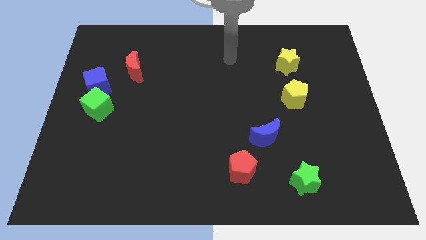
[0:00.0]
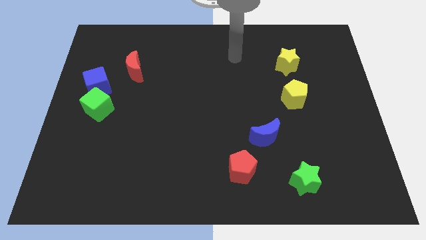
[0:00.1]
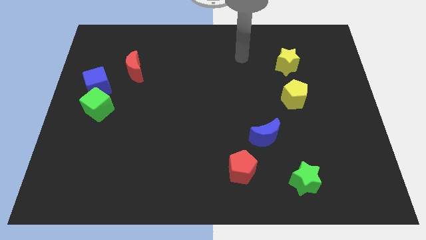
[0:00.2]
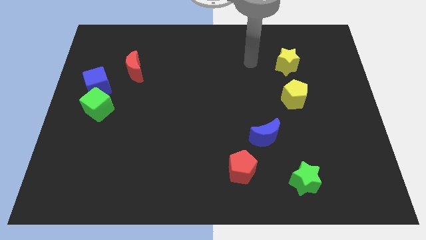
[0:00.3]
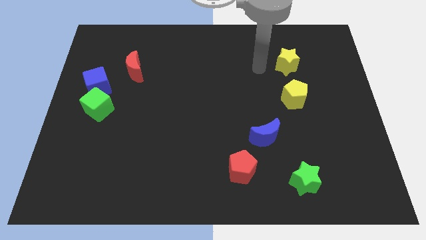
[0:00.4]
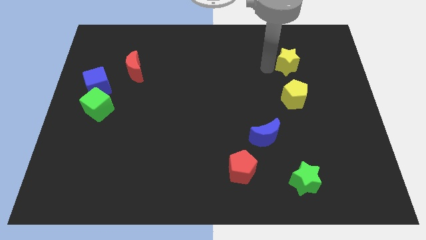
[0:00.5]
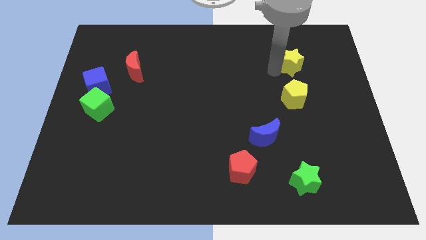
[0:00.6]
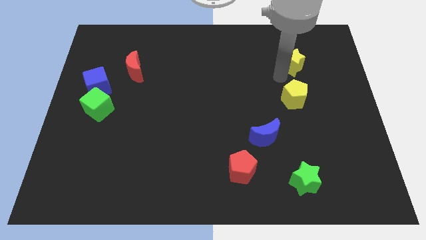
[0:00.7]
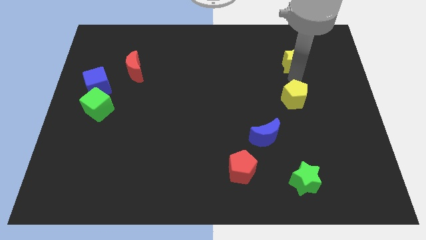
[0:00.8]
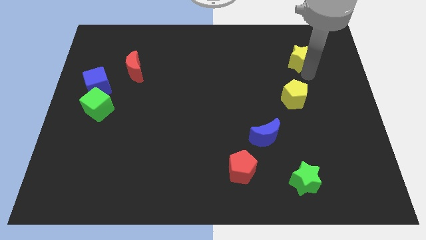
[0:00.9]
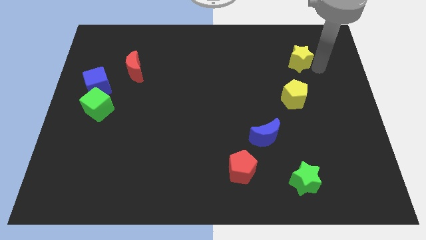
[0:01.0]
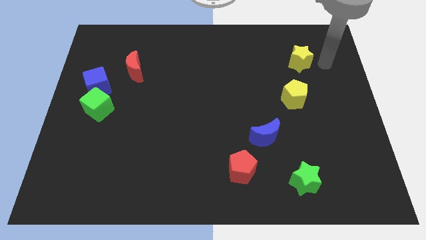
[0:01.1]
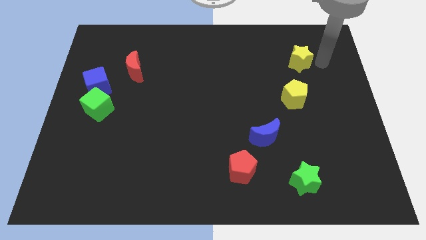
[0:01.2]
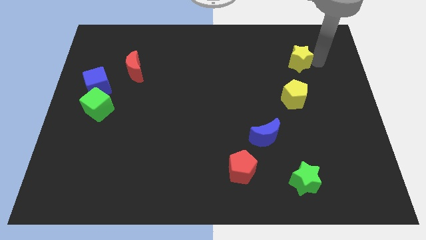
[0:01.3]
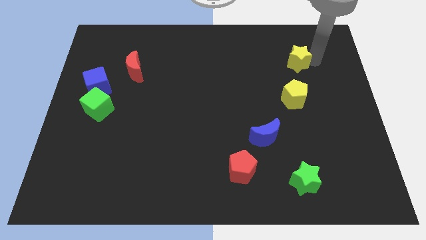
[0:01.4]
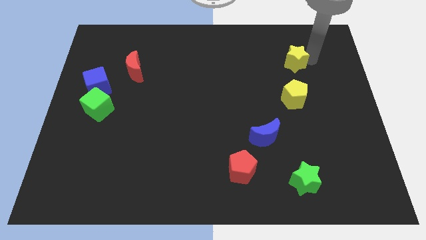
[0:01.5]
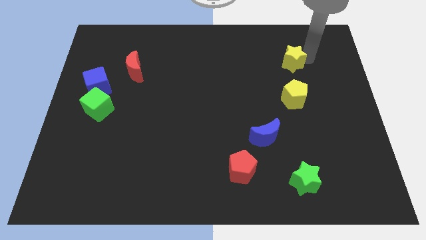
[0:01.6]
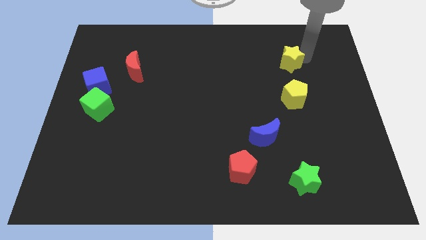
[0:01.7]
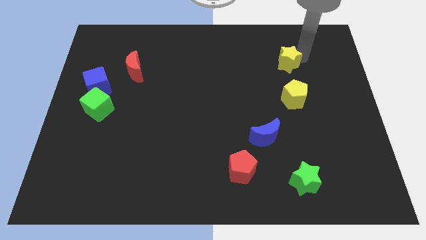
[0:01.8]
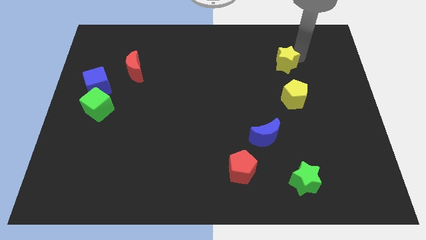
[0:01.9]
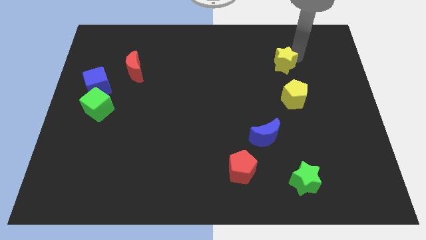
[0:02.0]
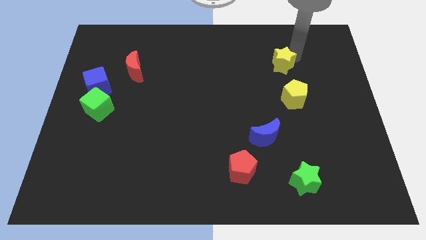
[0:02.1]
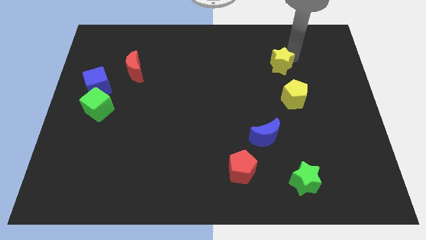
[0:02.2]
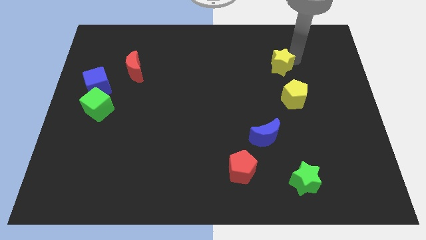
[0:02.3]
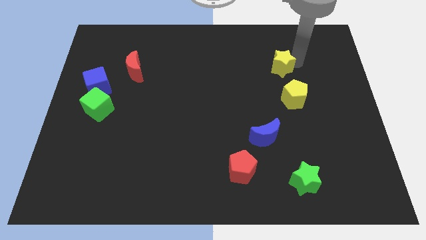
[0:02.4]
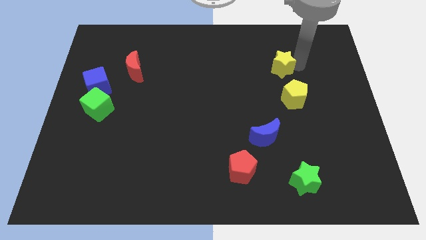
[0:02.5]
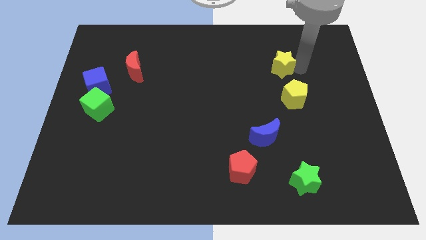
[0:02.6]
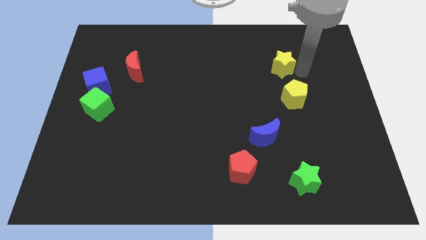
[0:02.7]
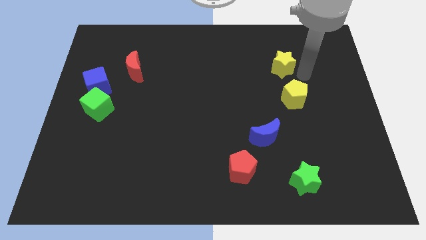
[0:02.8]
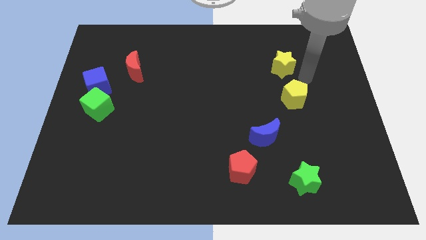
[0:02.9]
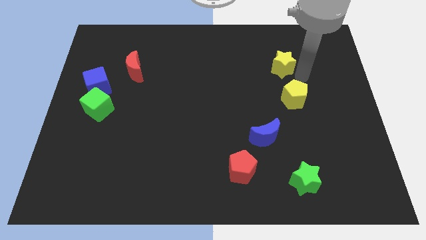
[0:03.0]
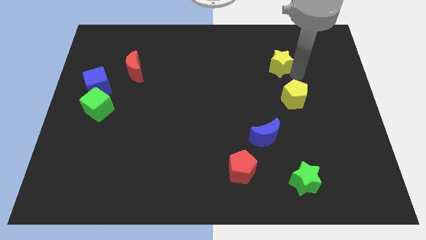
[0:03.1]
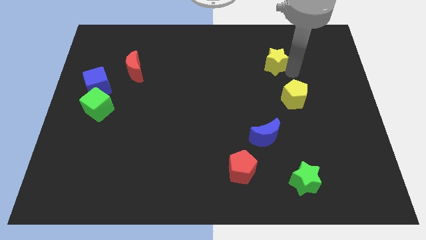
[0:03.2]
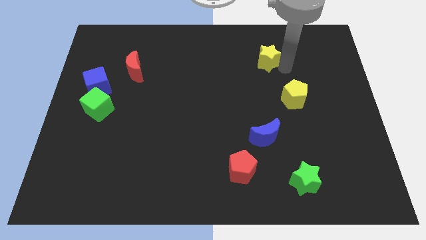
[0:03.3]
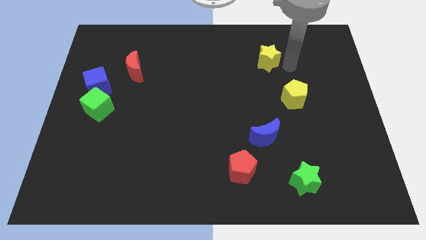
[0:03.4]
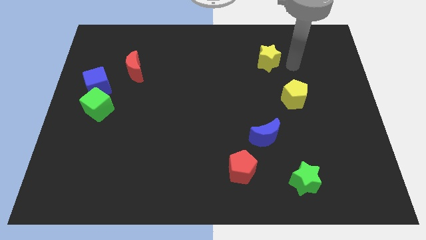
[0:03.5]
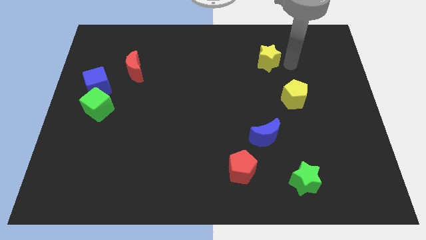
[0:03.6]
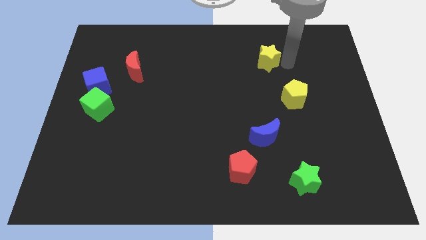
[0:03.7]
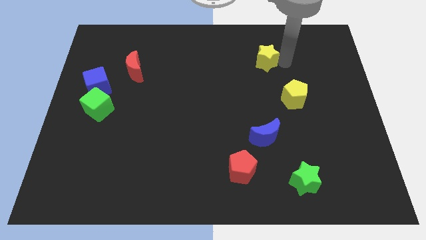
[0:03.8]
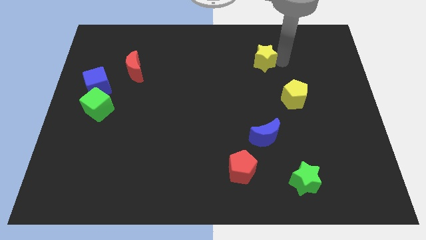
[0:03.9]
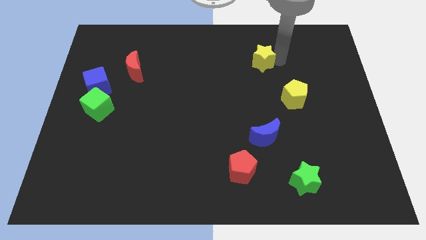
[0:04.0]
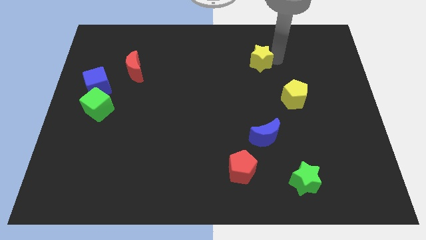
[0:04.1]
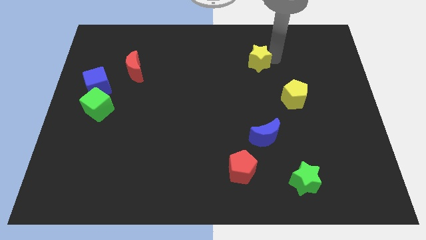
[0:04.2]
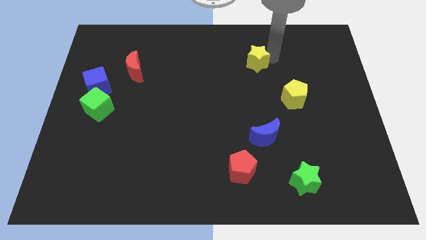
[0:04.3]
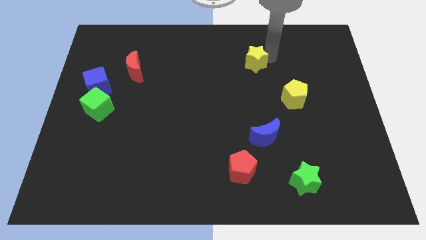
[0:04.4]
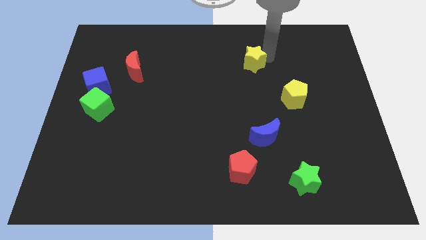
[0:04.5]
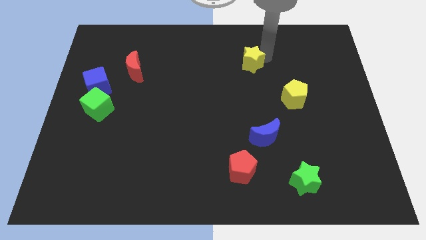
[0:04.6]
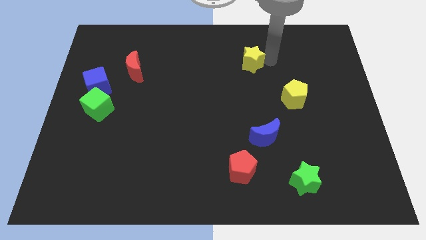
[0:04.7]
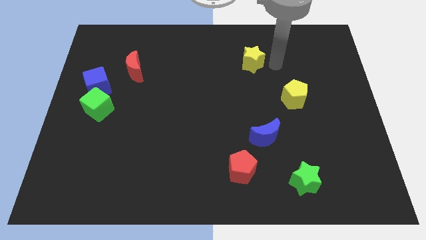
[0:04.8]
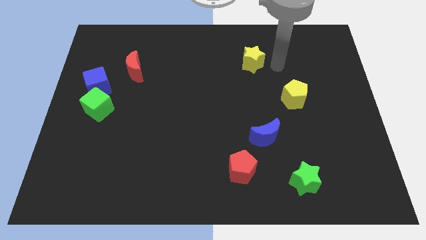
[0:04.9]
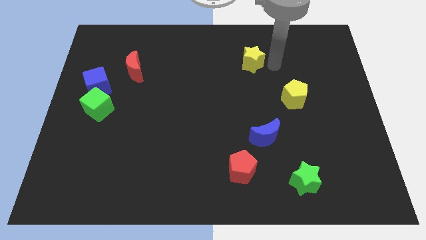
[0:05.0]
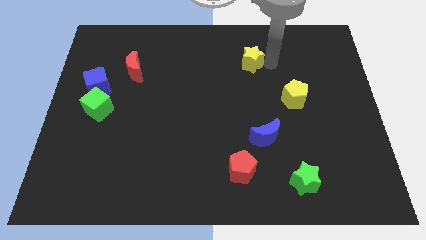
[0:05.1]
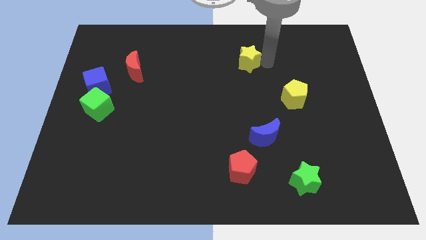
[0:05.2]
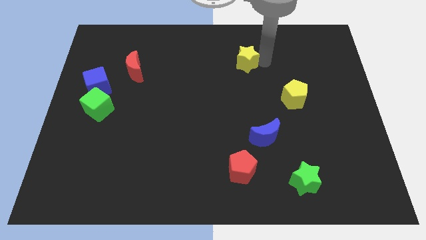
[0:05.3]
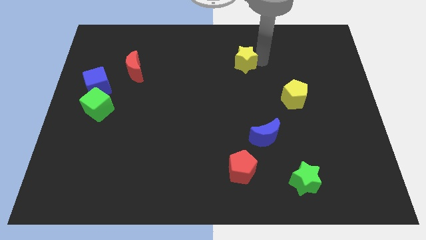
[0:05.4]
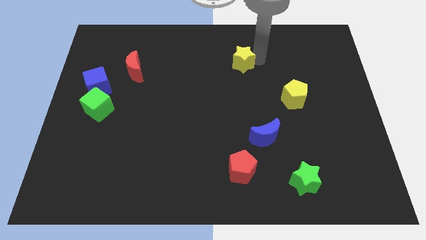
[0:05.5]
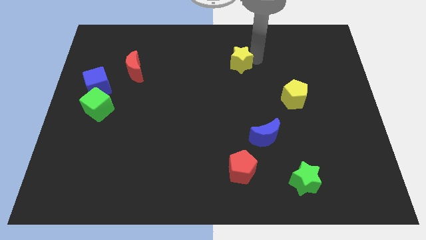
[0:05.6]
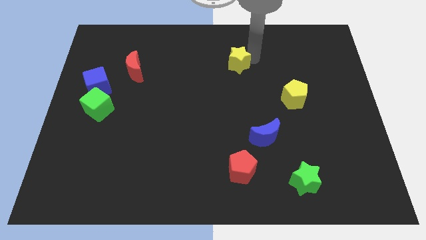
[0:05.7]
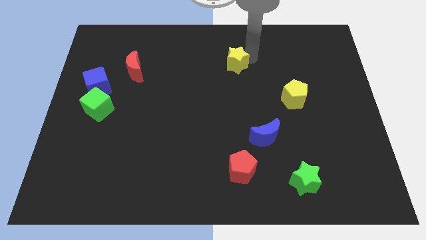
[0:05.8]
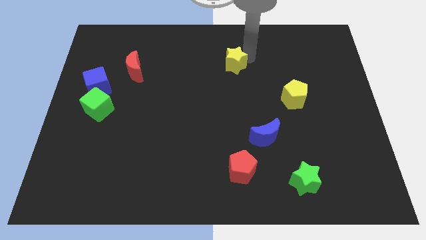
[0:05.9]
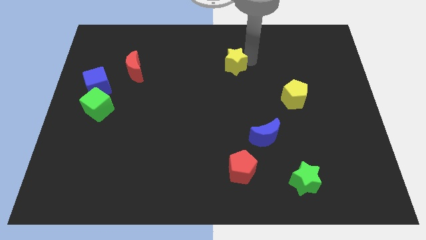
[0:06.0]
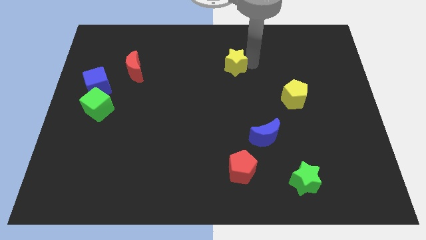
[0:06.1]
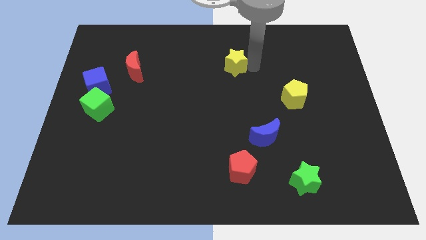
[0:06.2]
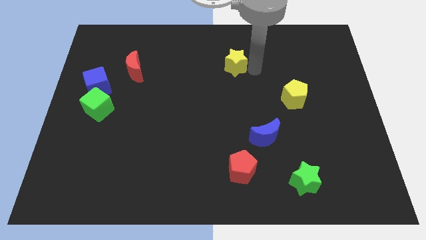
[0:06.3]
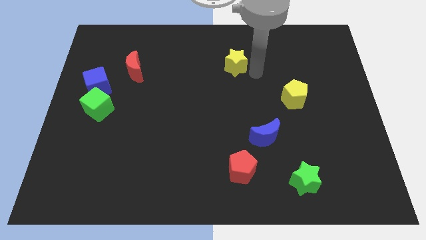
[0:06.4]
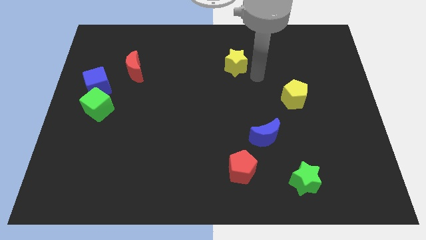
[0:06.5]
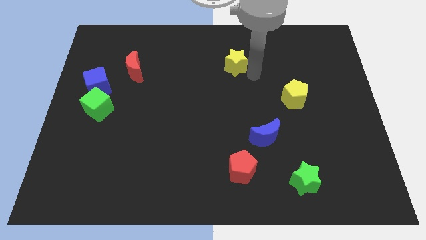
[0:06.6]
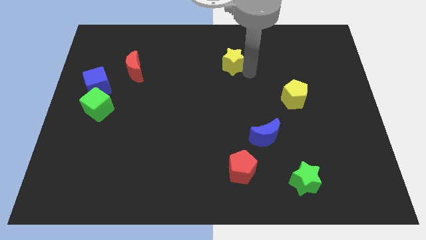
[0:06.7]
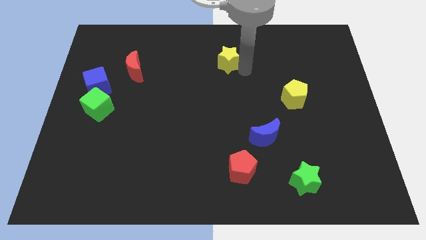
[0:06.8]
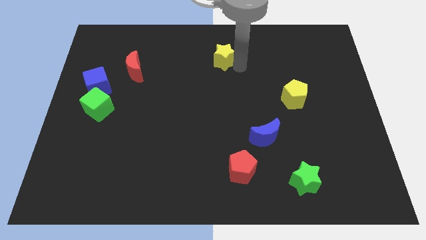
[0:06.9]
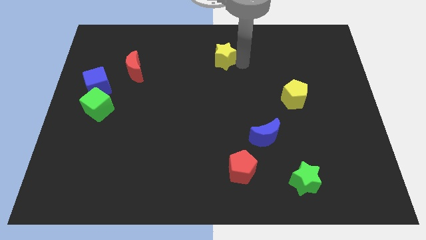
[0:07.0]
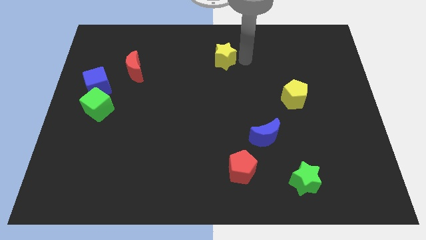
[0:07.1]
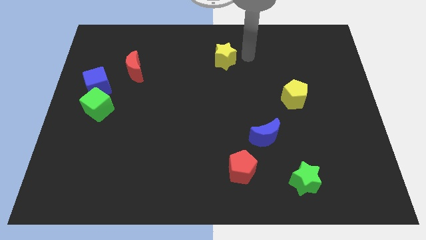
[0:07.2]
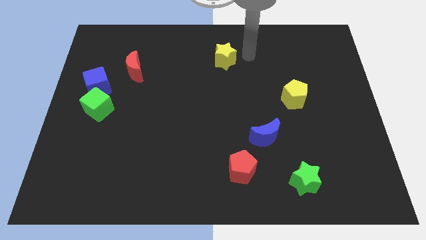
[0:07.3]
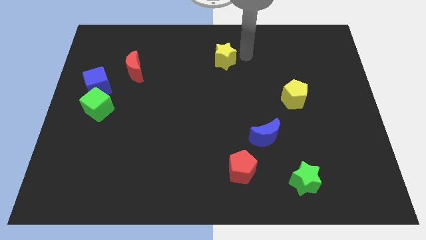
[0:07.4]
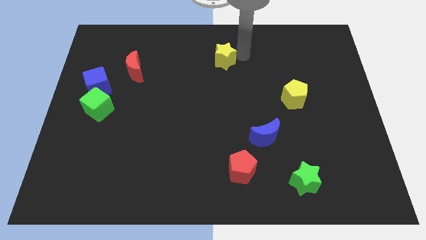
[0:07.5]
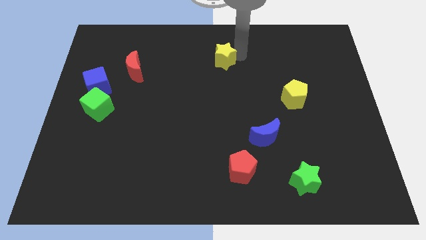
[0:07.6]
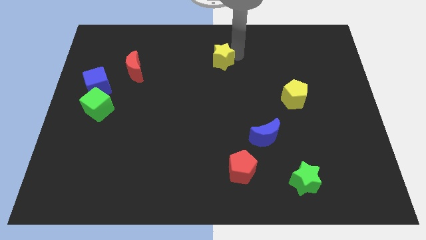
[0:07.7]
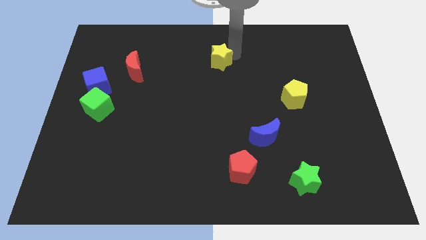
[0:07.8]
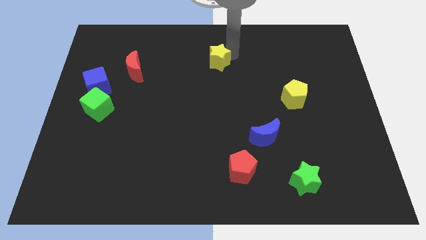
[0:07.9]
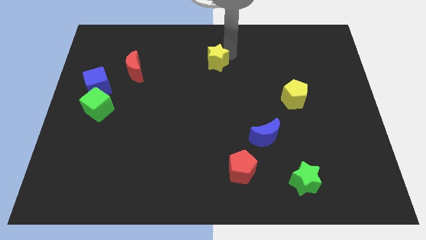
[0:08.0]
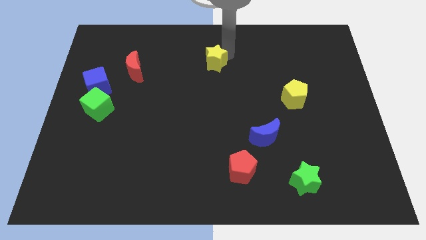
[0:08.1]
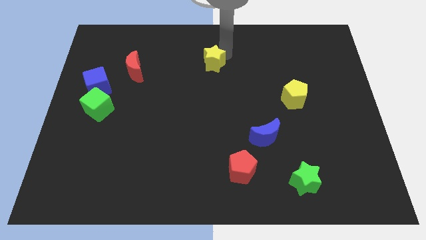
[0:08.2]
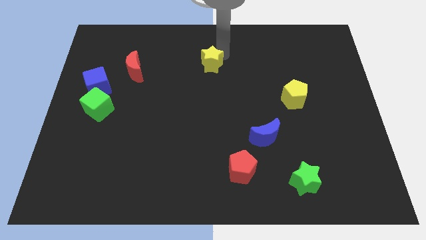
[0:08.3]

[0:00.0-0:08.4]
move the yellow star to the left
